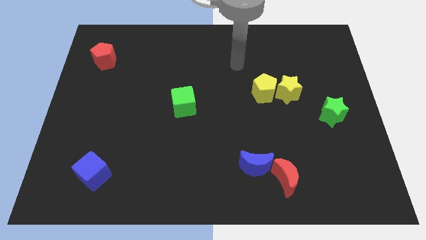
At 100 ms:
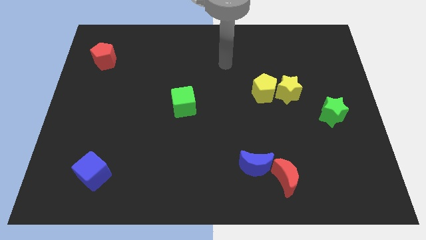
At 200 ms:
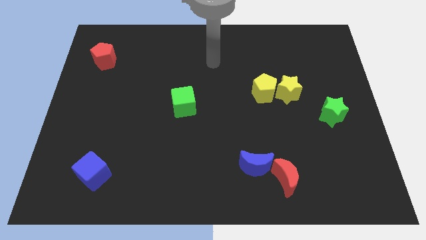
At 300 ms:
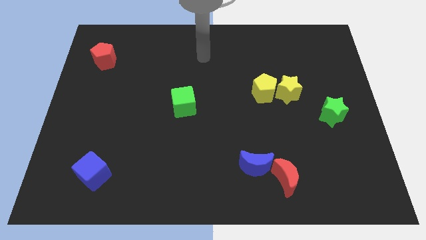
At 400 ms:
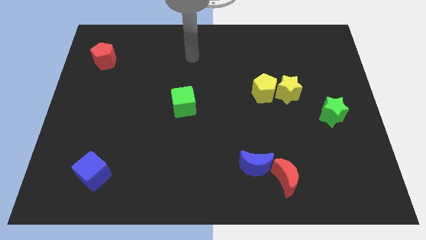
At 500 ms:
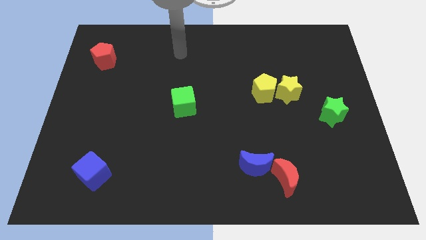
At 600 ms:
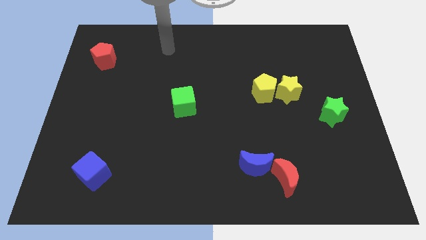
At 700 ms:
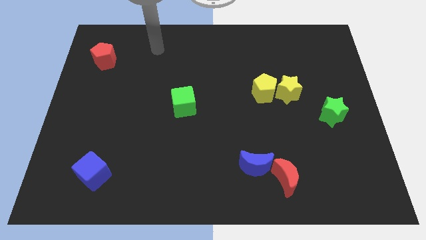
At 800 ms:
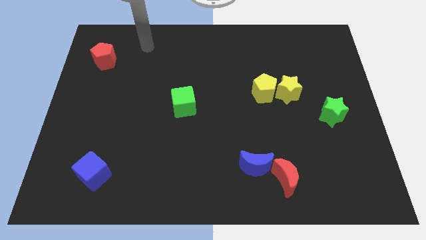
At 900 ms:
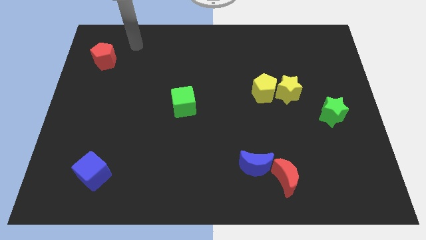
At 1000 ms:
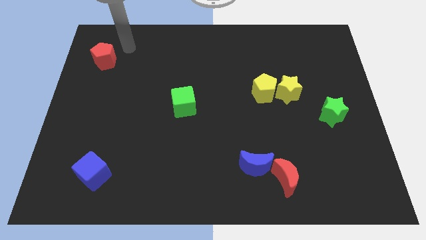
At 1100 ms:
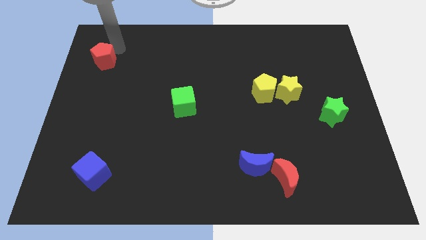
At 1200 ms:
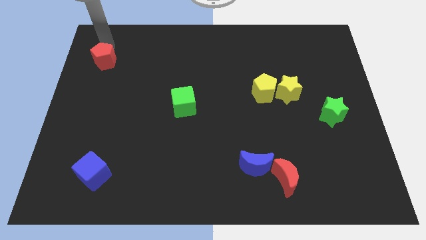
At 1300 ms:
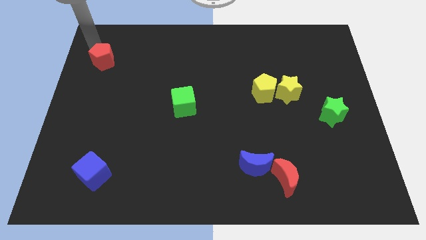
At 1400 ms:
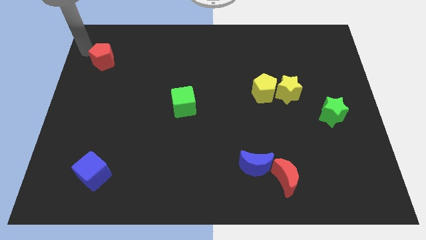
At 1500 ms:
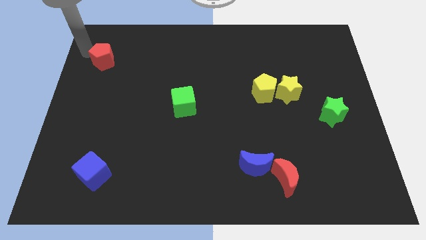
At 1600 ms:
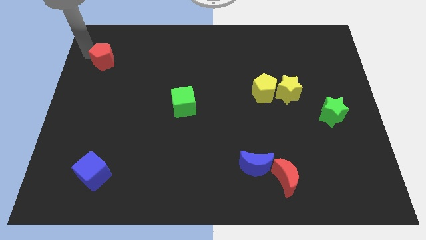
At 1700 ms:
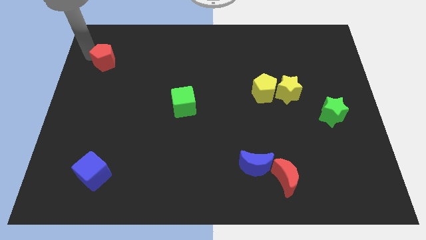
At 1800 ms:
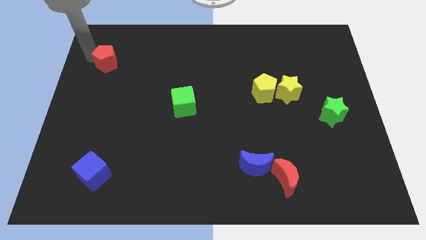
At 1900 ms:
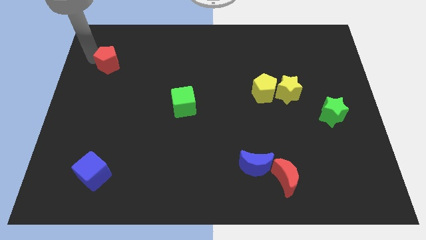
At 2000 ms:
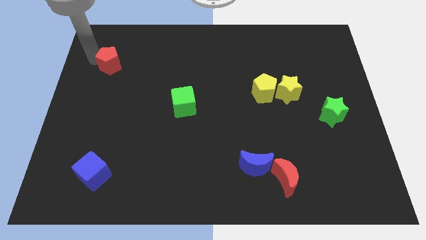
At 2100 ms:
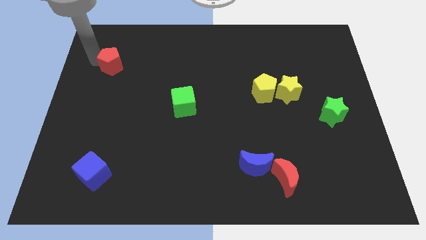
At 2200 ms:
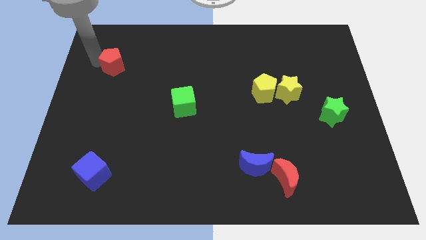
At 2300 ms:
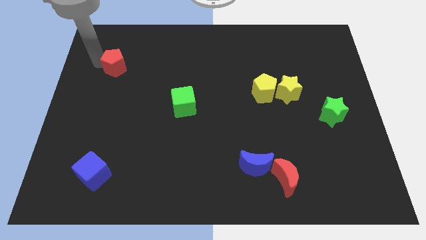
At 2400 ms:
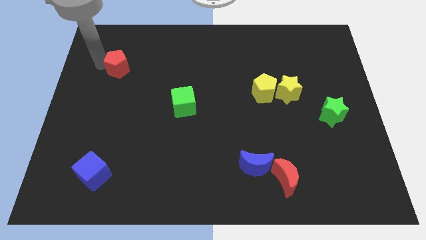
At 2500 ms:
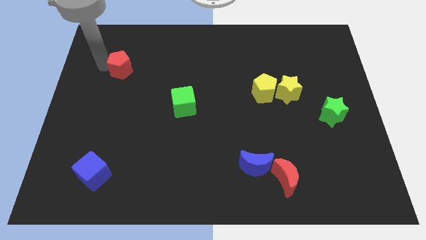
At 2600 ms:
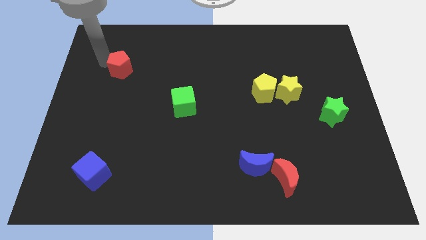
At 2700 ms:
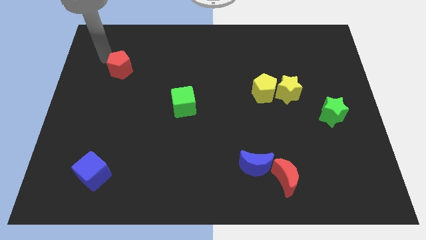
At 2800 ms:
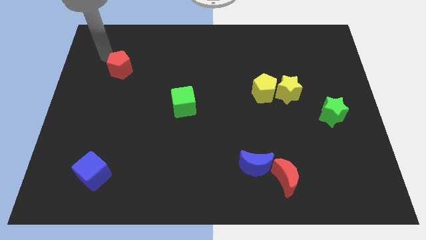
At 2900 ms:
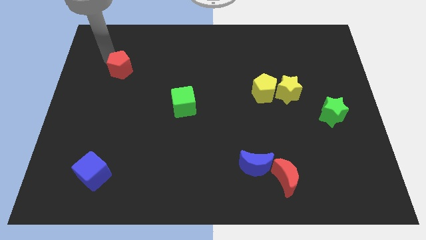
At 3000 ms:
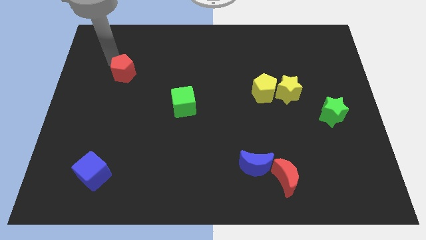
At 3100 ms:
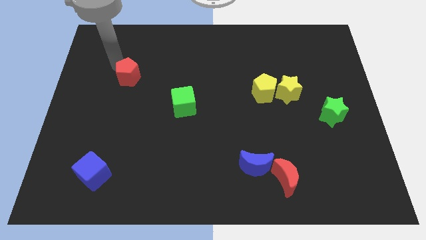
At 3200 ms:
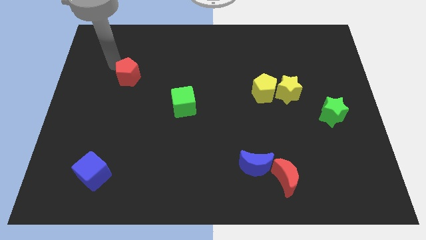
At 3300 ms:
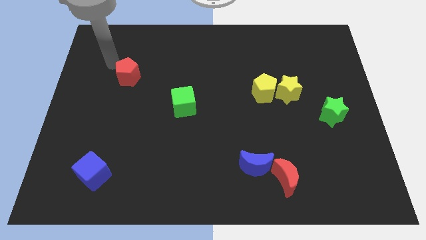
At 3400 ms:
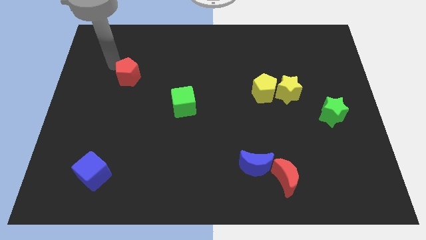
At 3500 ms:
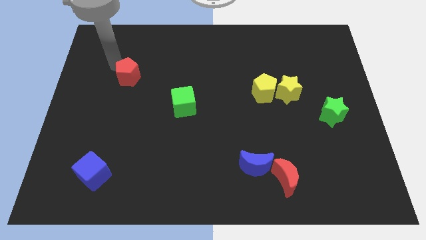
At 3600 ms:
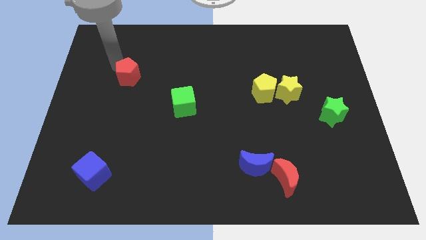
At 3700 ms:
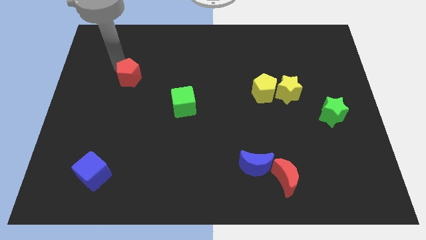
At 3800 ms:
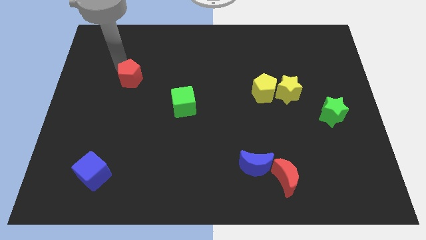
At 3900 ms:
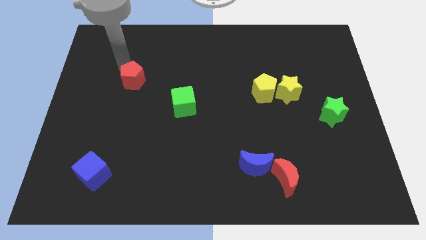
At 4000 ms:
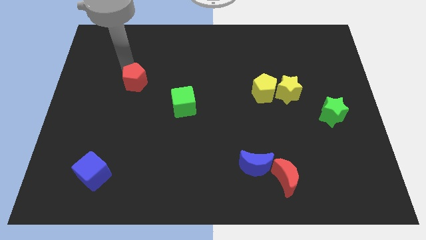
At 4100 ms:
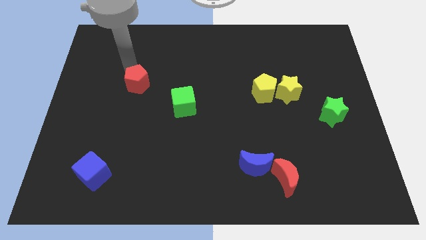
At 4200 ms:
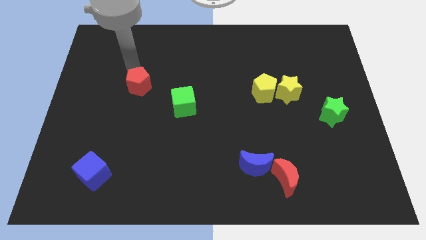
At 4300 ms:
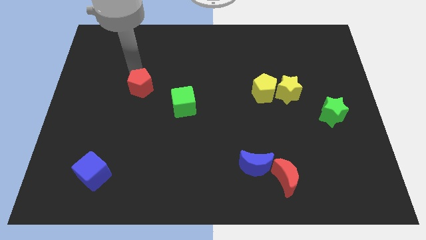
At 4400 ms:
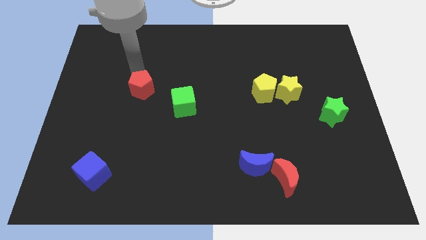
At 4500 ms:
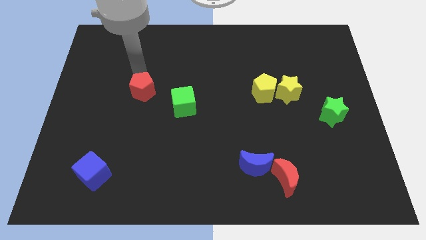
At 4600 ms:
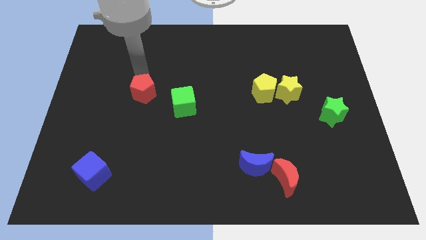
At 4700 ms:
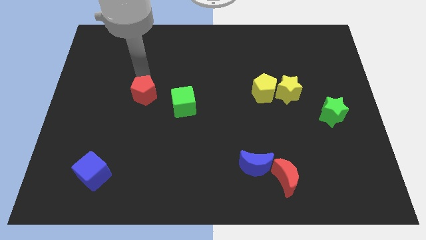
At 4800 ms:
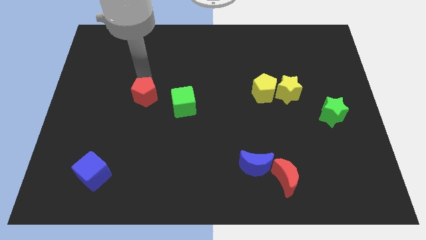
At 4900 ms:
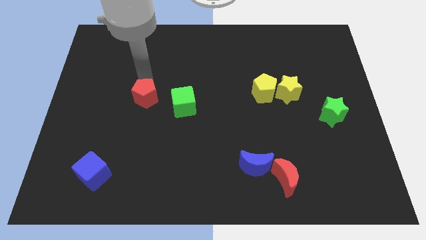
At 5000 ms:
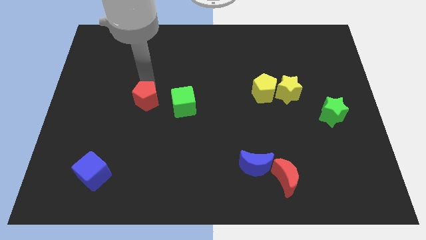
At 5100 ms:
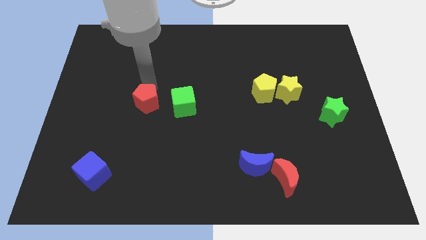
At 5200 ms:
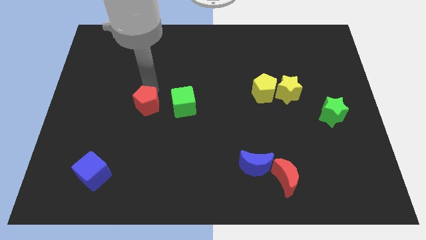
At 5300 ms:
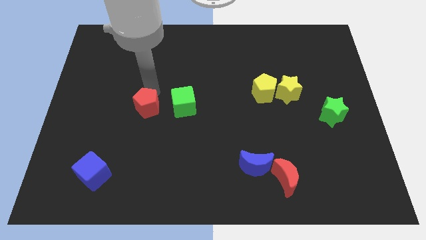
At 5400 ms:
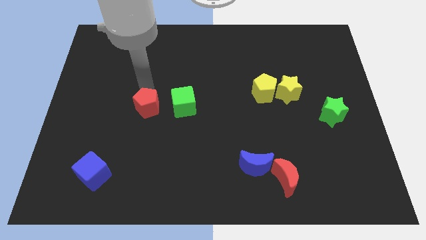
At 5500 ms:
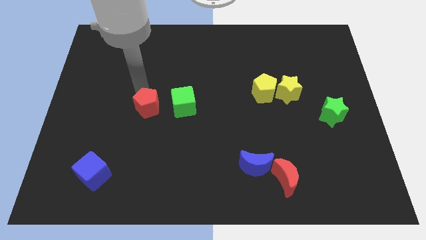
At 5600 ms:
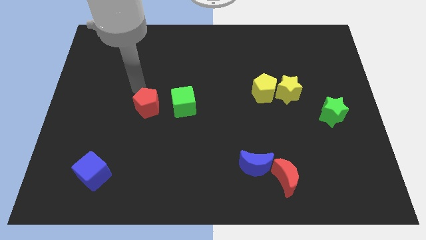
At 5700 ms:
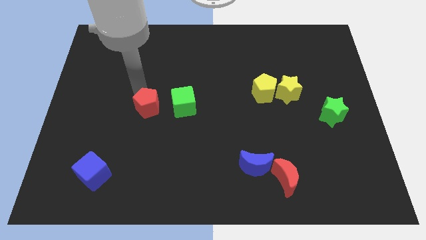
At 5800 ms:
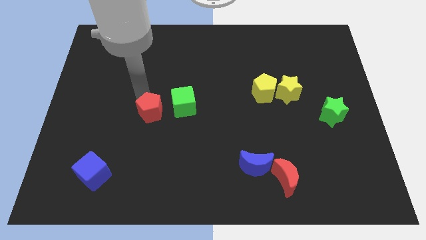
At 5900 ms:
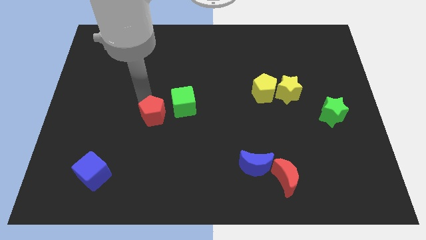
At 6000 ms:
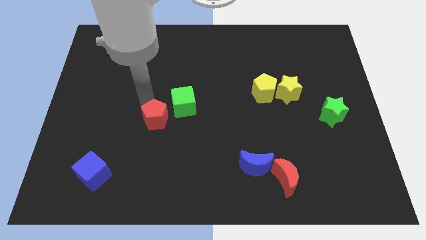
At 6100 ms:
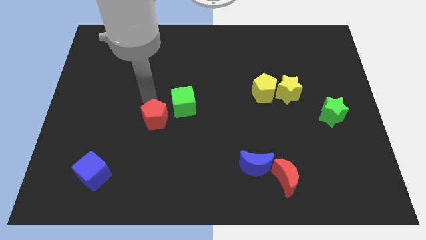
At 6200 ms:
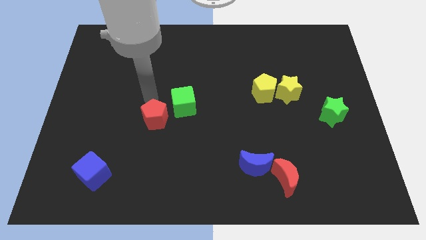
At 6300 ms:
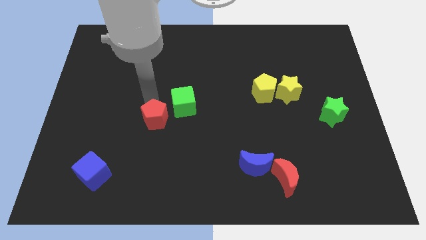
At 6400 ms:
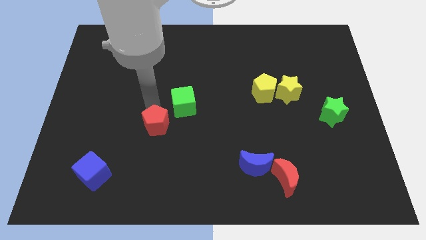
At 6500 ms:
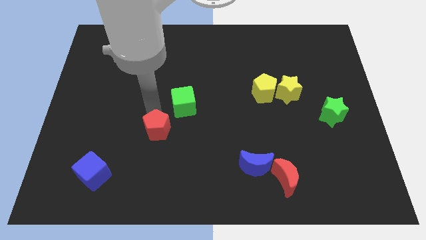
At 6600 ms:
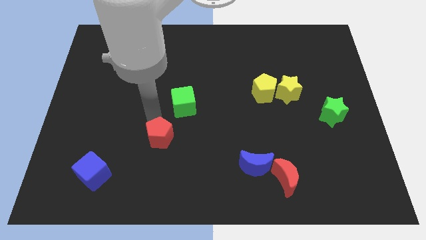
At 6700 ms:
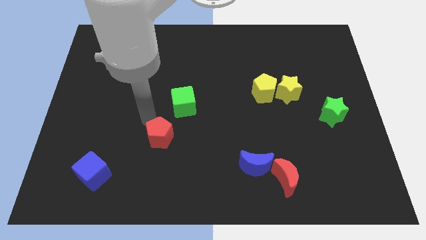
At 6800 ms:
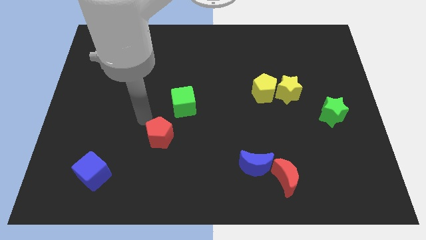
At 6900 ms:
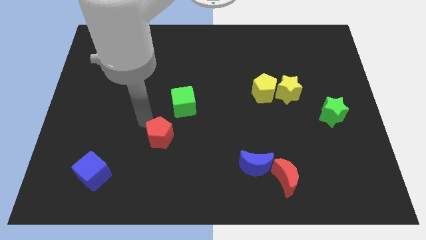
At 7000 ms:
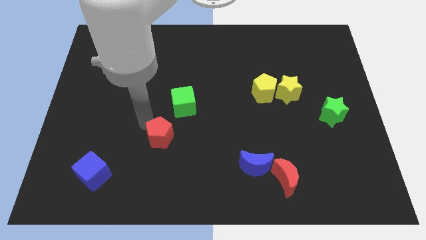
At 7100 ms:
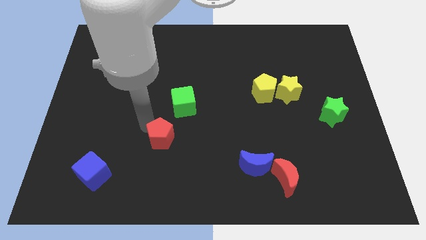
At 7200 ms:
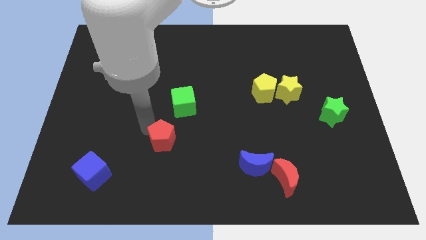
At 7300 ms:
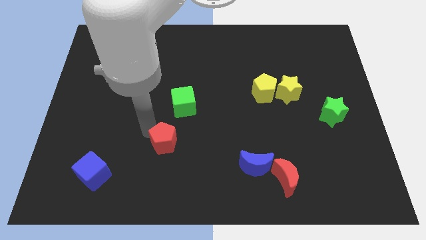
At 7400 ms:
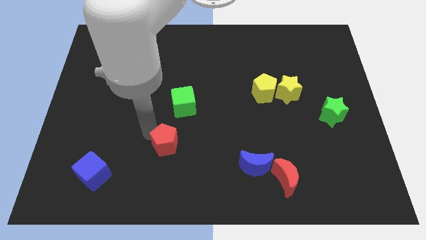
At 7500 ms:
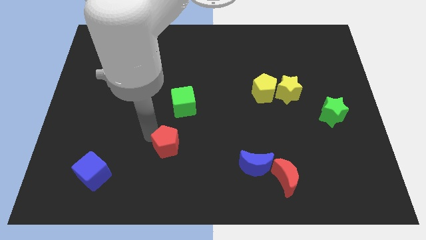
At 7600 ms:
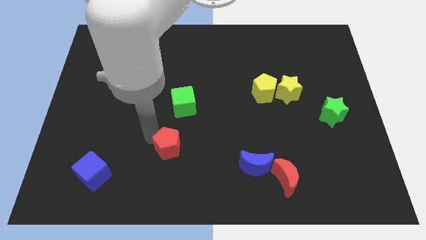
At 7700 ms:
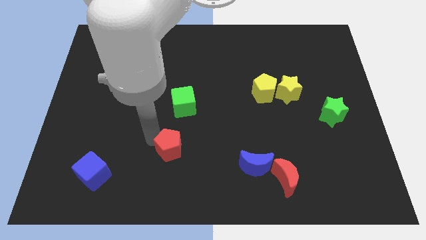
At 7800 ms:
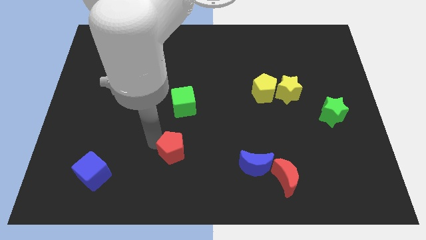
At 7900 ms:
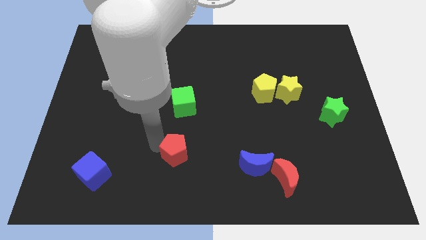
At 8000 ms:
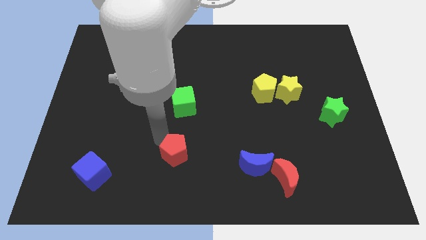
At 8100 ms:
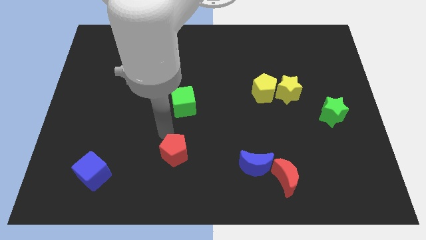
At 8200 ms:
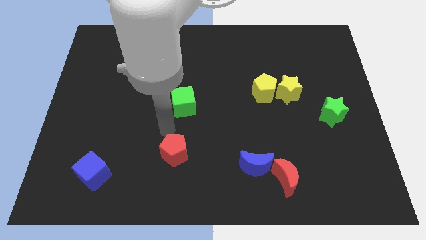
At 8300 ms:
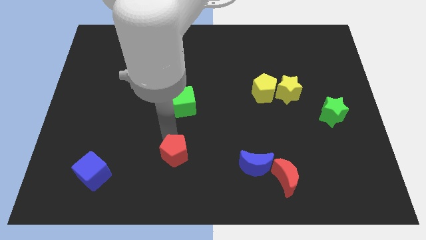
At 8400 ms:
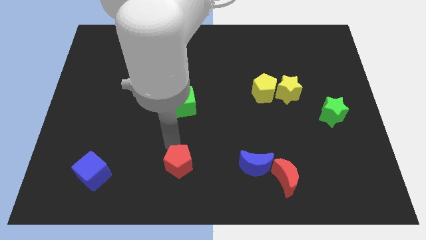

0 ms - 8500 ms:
slide the red pentagon to the bottom
